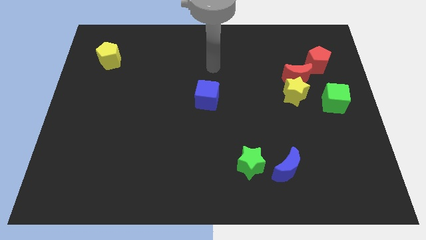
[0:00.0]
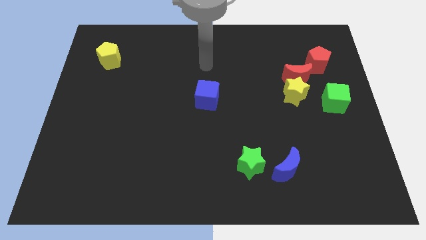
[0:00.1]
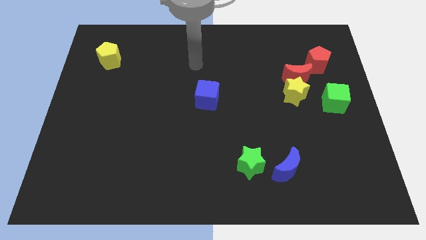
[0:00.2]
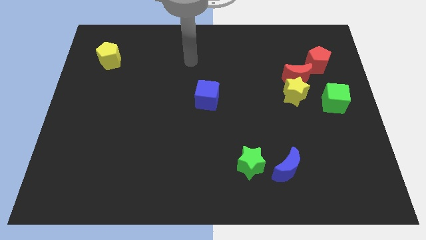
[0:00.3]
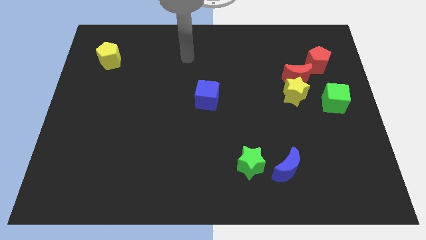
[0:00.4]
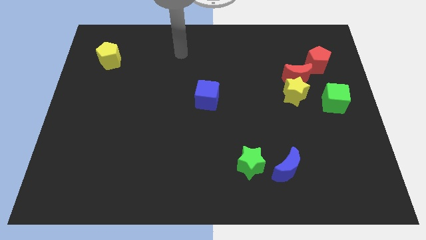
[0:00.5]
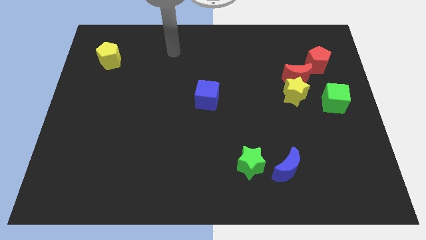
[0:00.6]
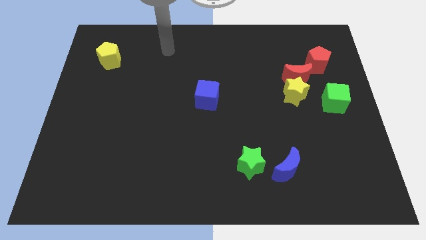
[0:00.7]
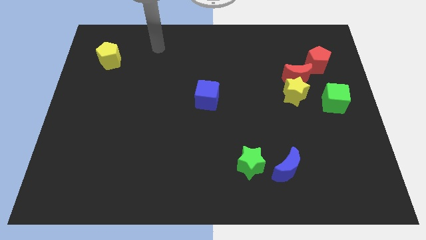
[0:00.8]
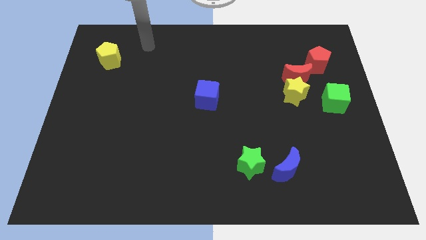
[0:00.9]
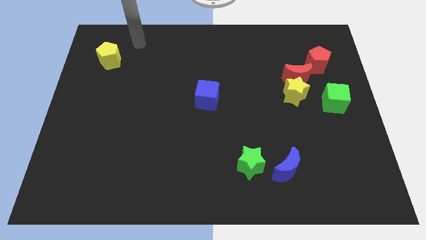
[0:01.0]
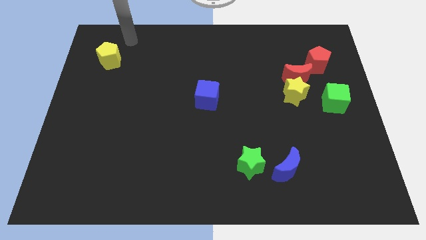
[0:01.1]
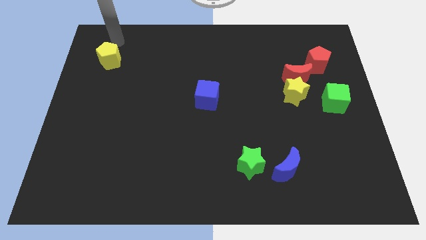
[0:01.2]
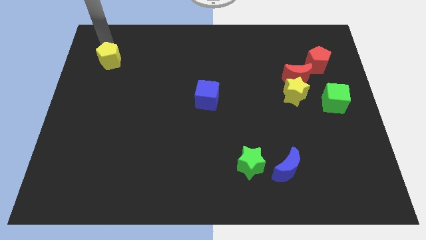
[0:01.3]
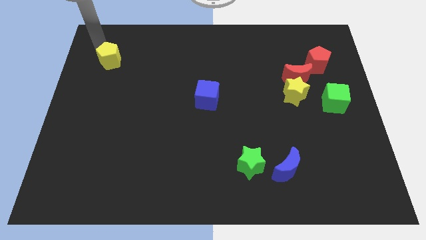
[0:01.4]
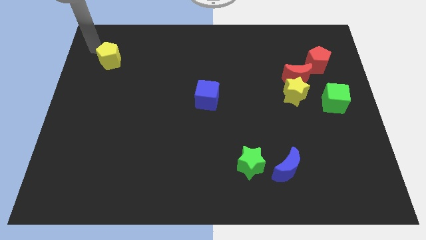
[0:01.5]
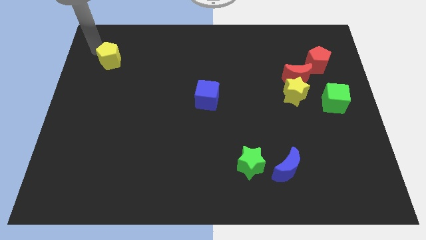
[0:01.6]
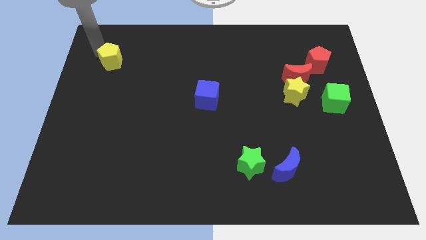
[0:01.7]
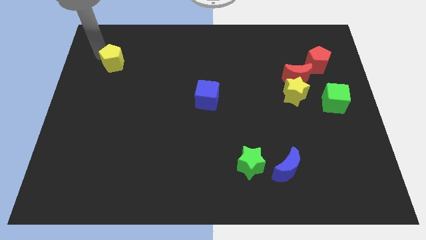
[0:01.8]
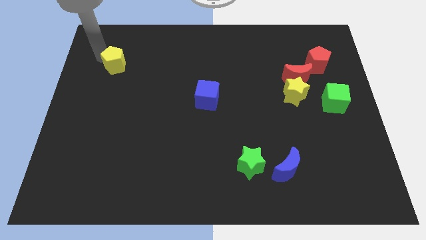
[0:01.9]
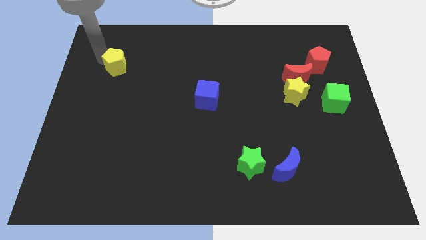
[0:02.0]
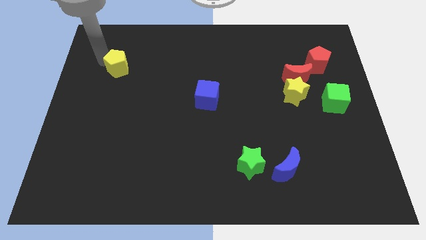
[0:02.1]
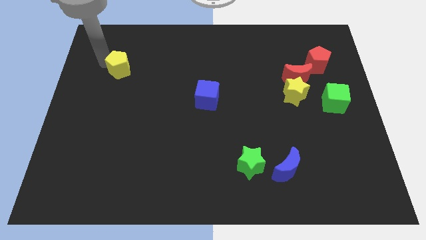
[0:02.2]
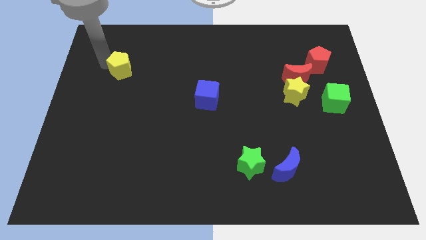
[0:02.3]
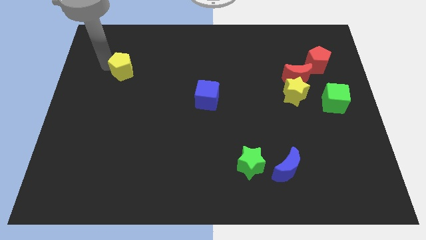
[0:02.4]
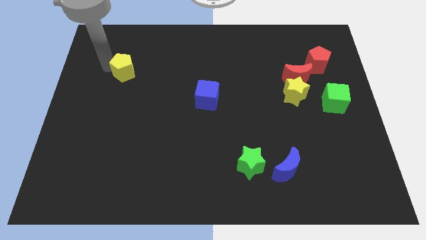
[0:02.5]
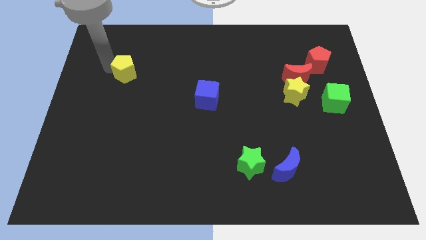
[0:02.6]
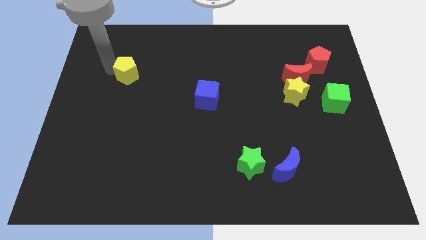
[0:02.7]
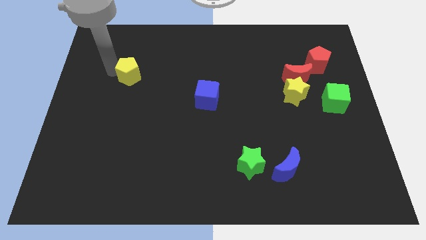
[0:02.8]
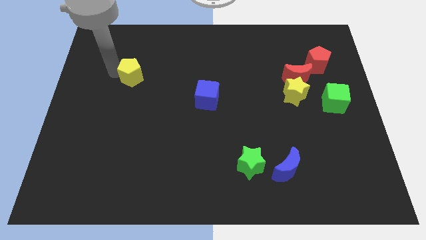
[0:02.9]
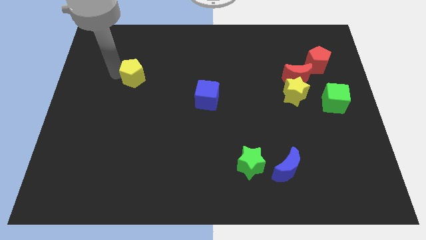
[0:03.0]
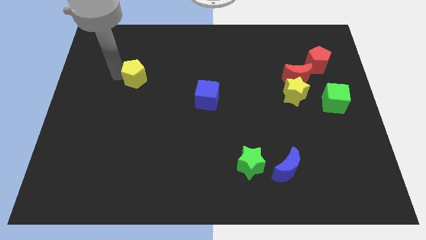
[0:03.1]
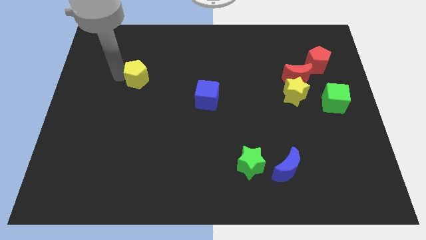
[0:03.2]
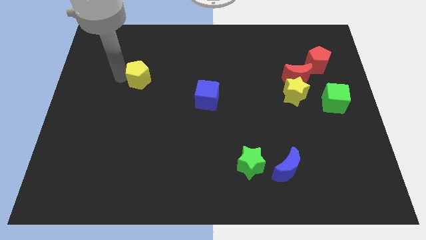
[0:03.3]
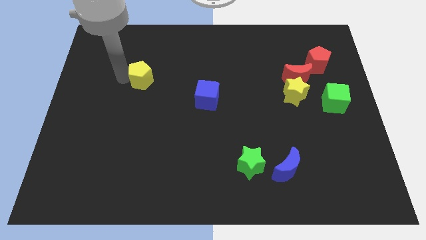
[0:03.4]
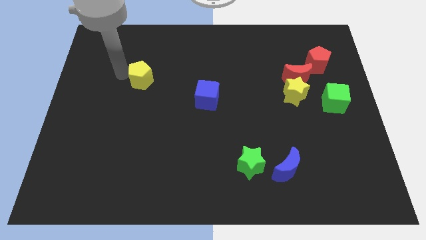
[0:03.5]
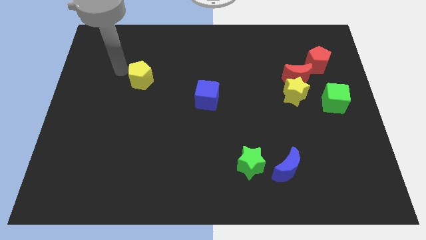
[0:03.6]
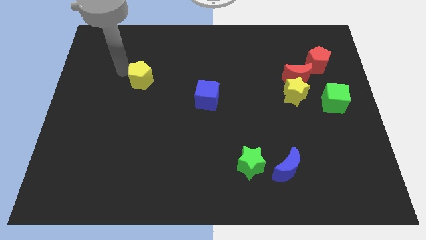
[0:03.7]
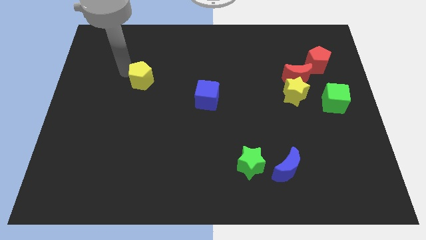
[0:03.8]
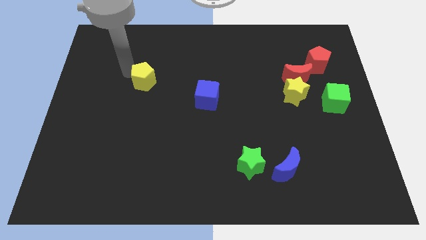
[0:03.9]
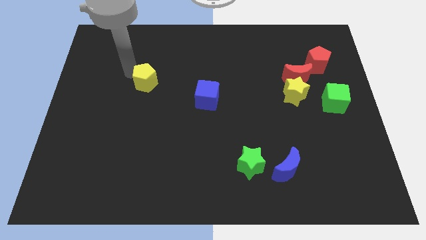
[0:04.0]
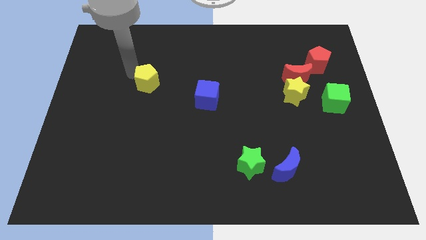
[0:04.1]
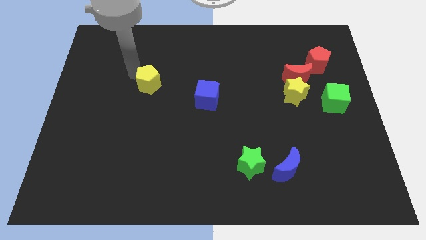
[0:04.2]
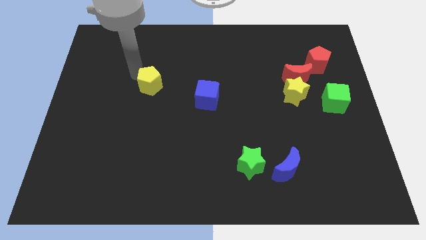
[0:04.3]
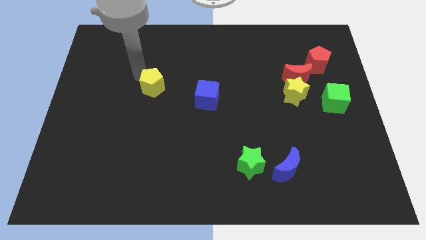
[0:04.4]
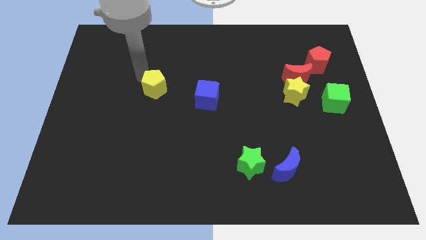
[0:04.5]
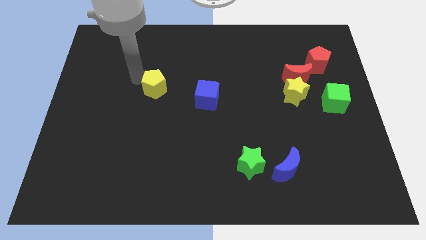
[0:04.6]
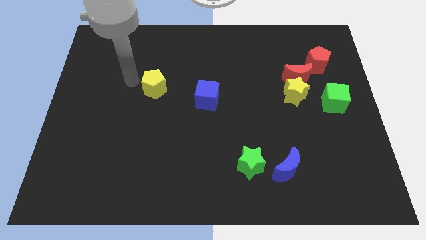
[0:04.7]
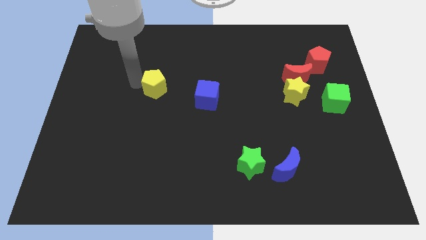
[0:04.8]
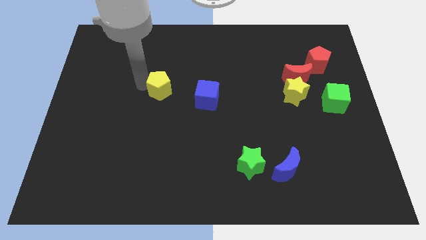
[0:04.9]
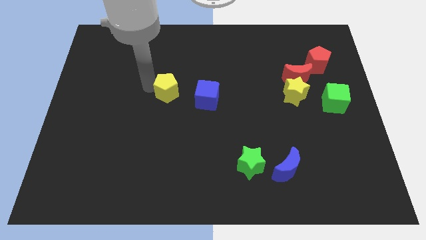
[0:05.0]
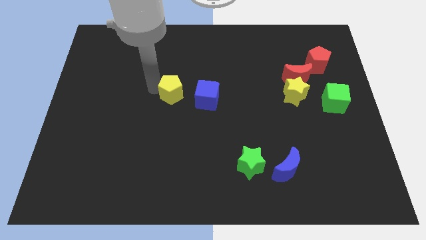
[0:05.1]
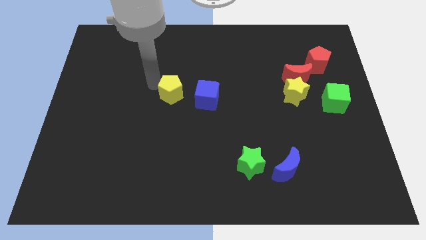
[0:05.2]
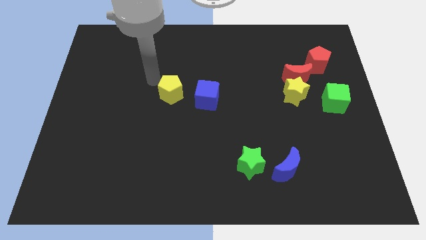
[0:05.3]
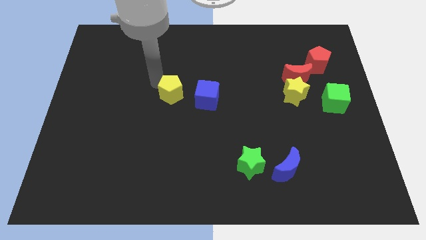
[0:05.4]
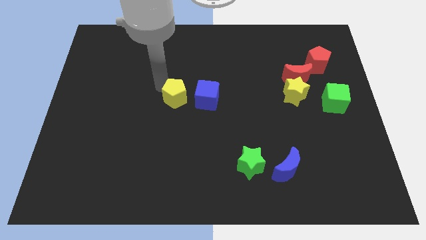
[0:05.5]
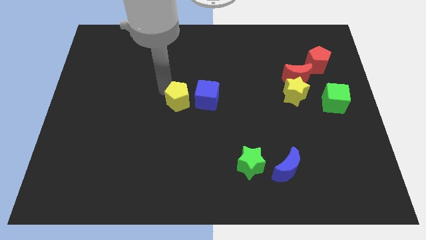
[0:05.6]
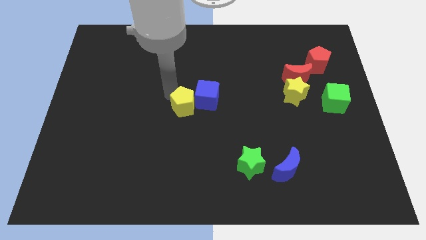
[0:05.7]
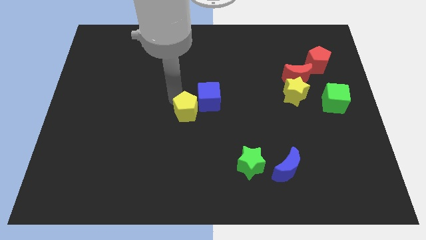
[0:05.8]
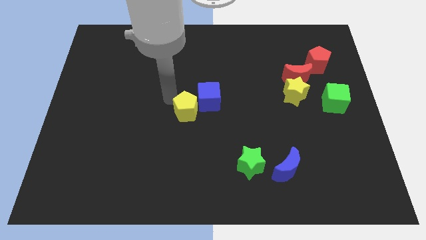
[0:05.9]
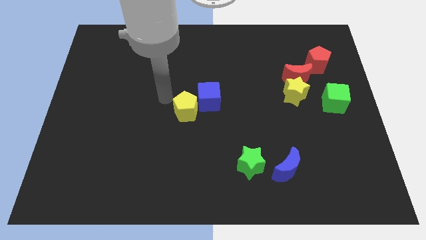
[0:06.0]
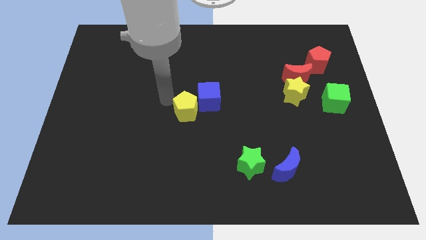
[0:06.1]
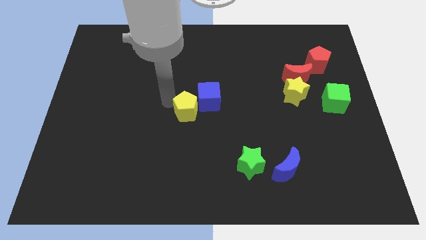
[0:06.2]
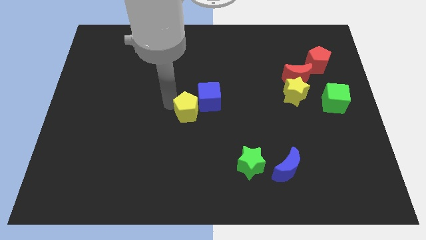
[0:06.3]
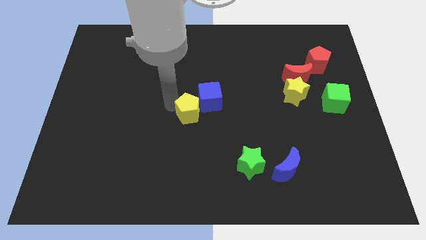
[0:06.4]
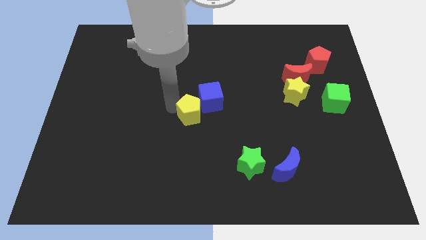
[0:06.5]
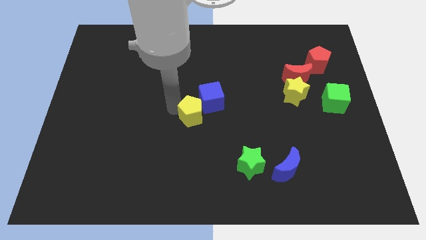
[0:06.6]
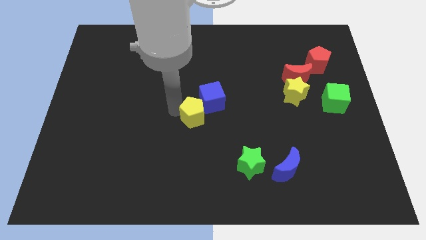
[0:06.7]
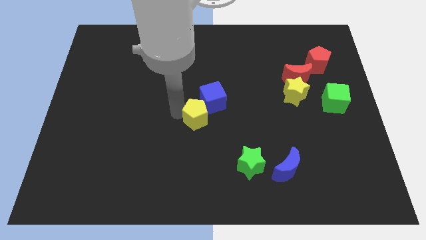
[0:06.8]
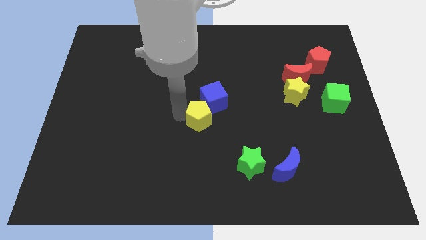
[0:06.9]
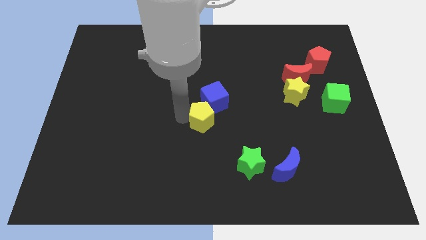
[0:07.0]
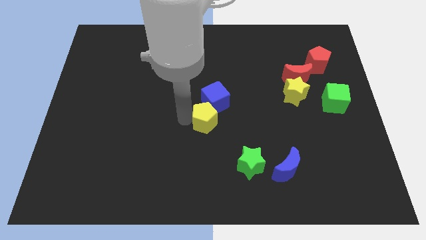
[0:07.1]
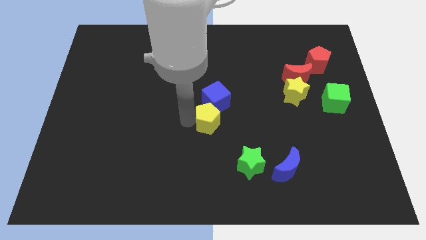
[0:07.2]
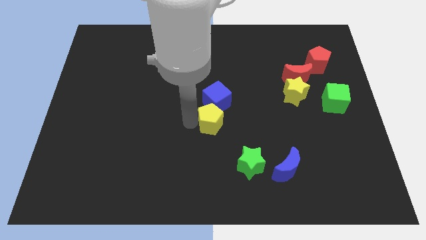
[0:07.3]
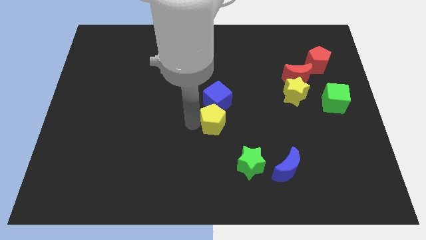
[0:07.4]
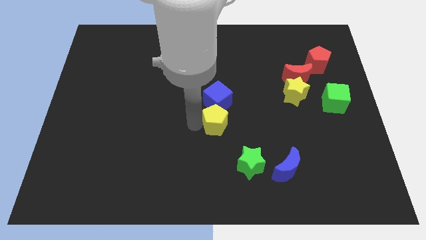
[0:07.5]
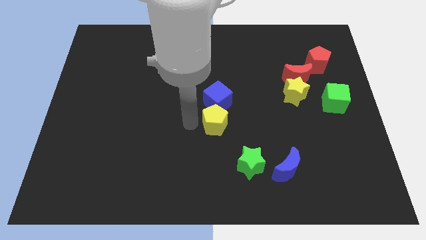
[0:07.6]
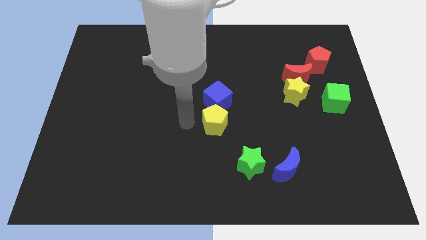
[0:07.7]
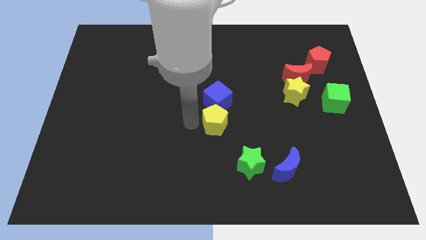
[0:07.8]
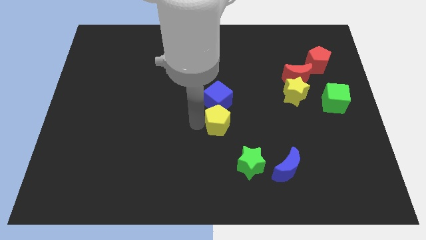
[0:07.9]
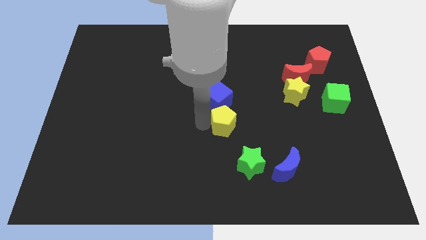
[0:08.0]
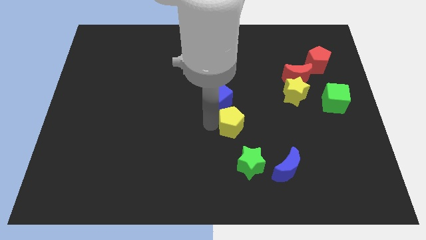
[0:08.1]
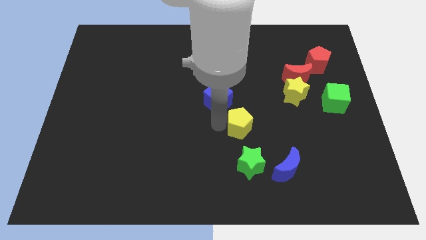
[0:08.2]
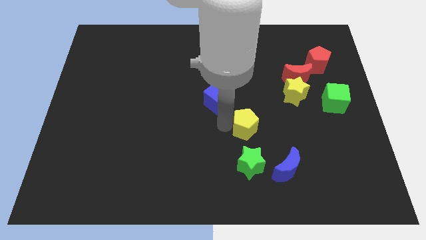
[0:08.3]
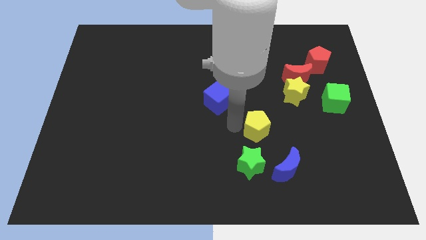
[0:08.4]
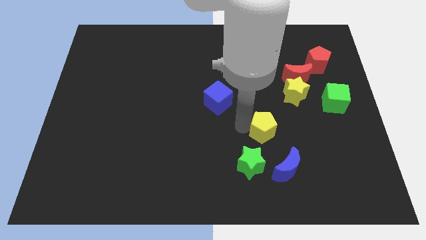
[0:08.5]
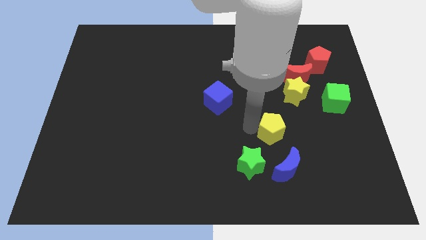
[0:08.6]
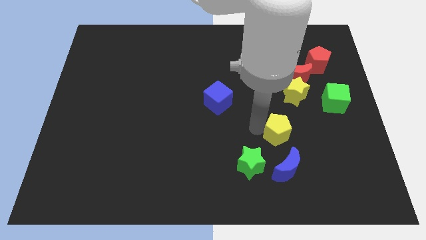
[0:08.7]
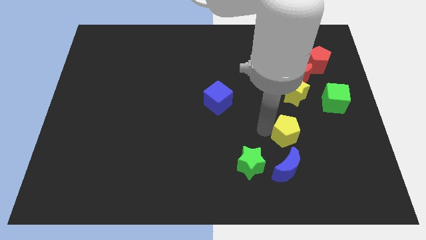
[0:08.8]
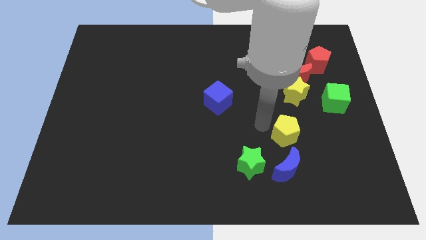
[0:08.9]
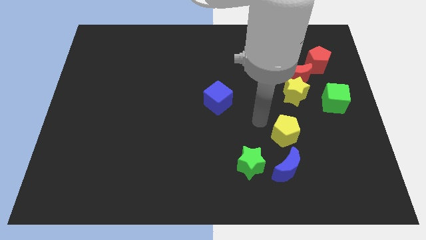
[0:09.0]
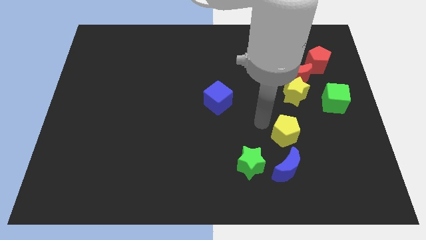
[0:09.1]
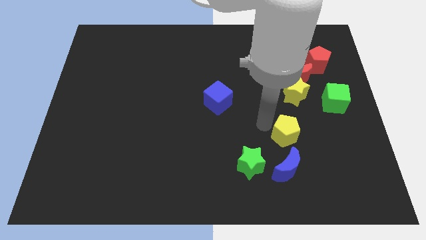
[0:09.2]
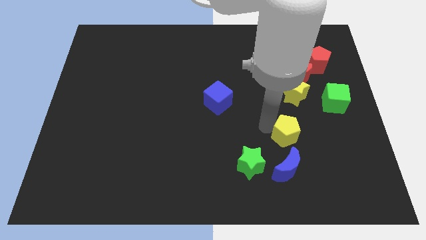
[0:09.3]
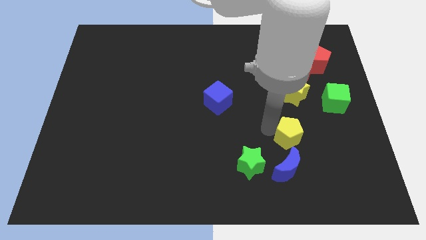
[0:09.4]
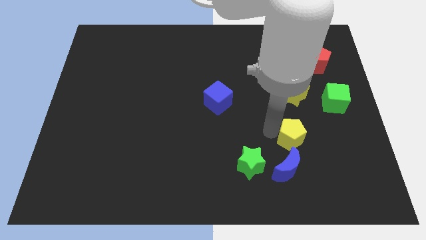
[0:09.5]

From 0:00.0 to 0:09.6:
move the yellow pentagon to the top right of the blue moon
